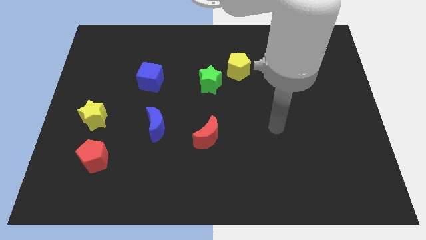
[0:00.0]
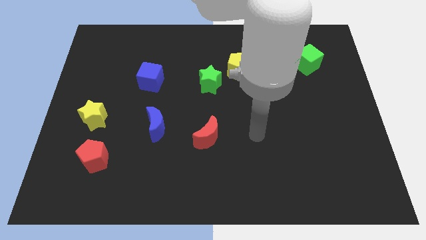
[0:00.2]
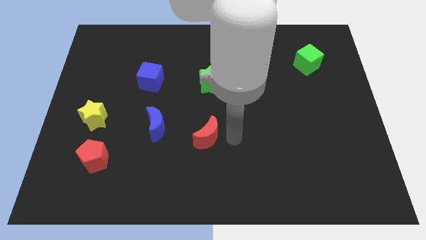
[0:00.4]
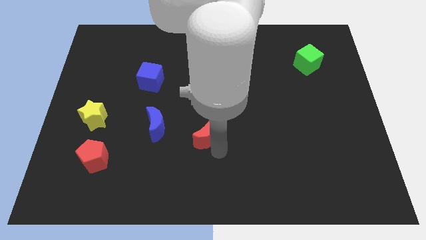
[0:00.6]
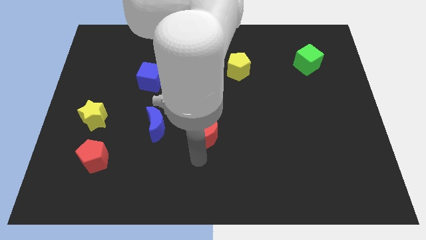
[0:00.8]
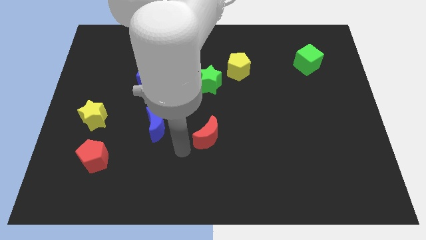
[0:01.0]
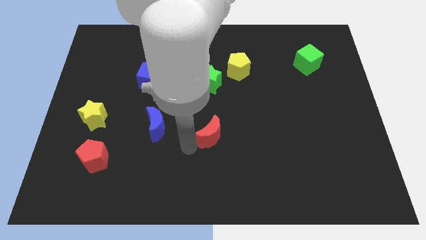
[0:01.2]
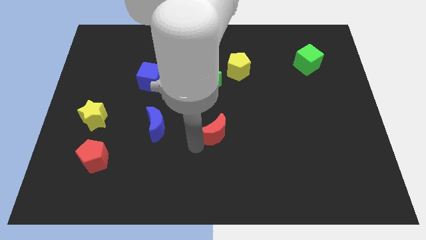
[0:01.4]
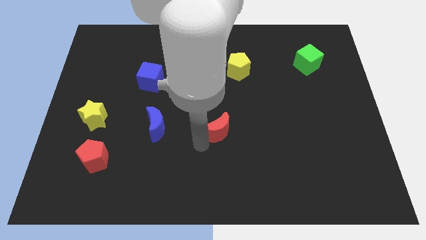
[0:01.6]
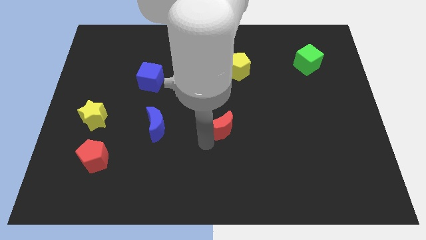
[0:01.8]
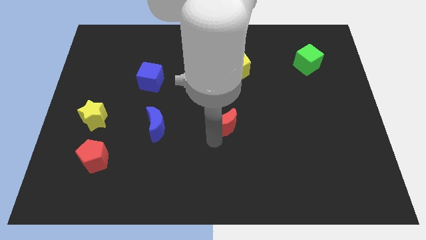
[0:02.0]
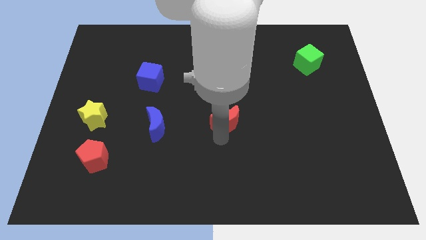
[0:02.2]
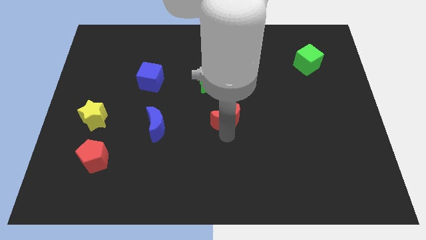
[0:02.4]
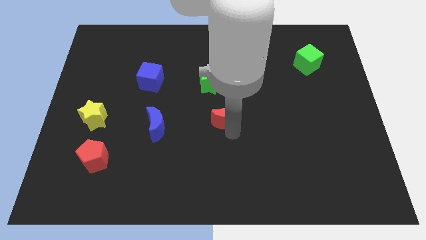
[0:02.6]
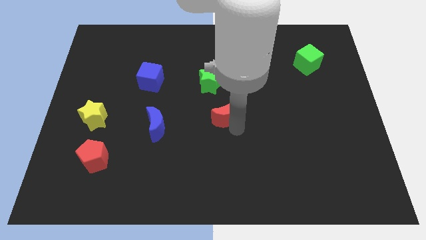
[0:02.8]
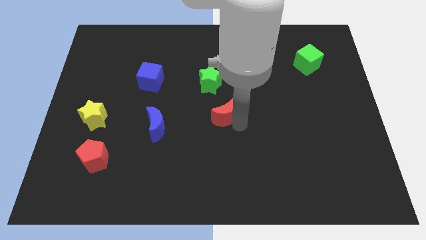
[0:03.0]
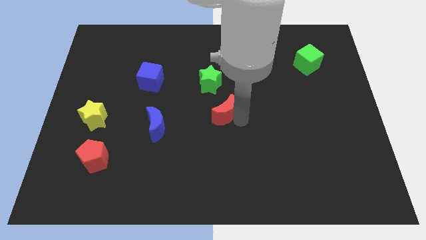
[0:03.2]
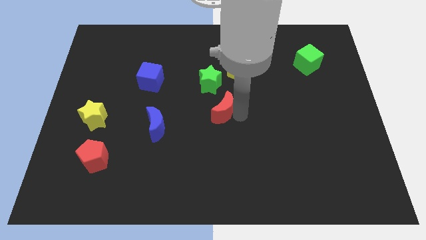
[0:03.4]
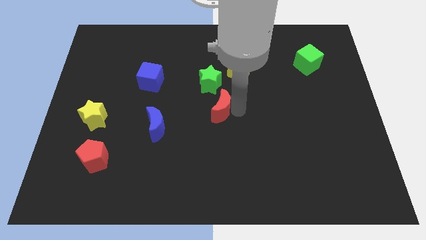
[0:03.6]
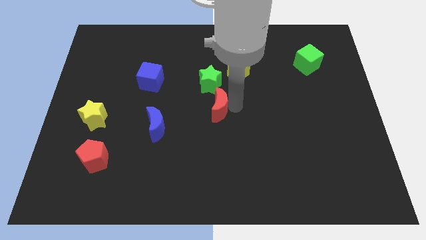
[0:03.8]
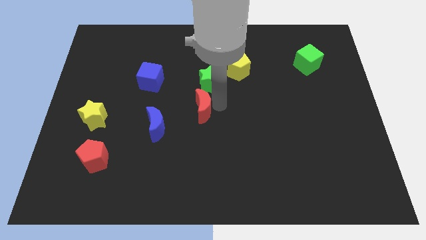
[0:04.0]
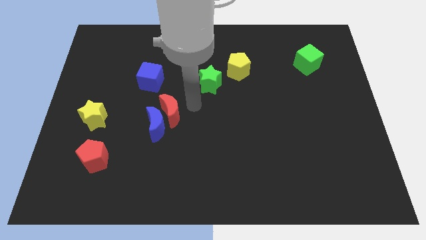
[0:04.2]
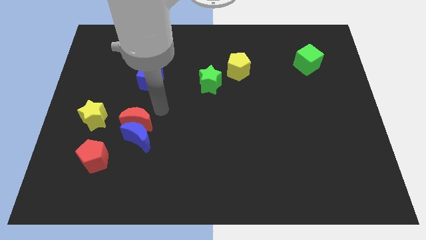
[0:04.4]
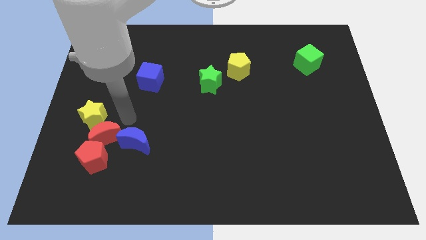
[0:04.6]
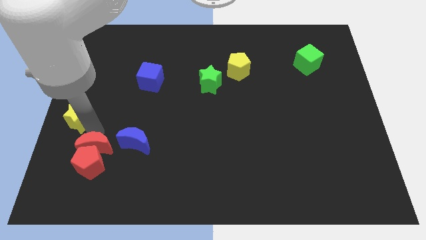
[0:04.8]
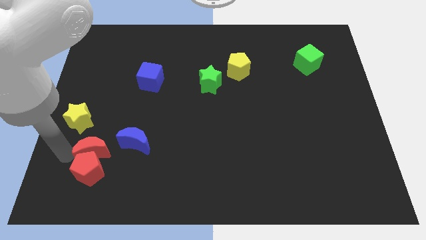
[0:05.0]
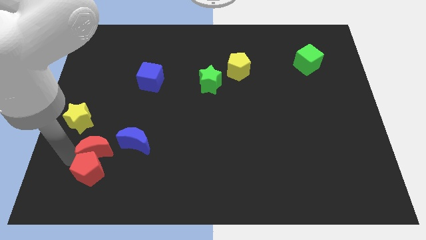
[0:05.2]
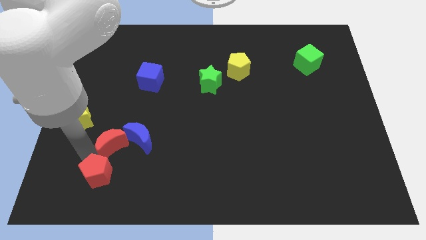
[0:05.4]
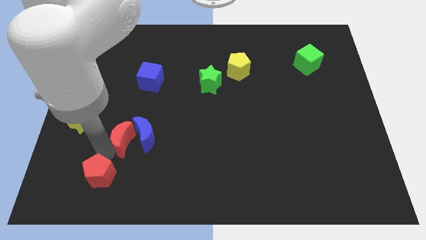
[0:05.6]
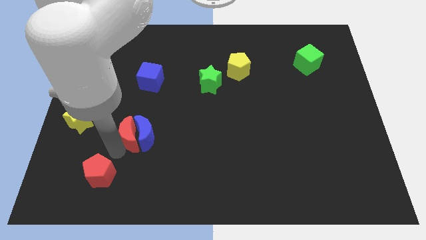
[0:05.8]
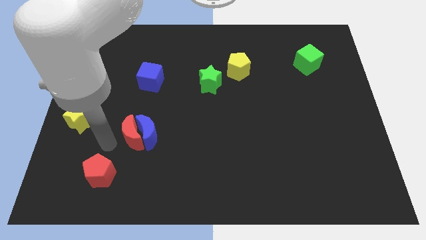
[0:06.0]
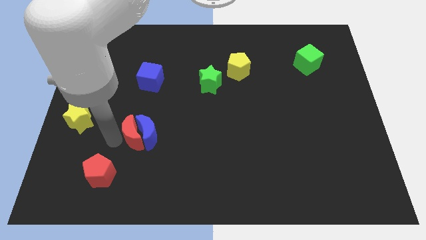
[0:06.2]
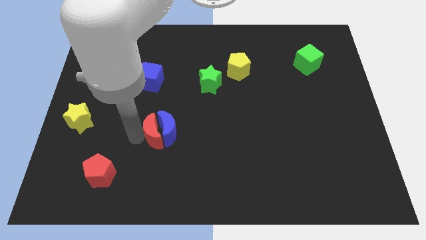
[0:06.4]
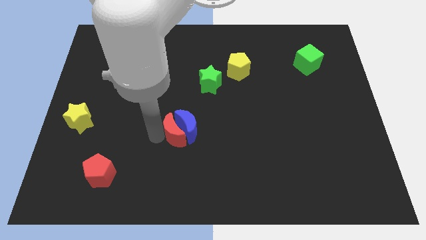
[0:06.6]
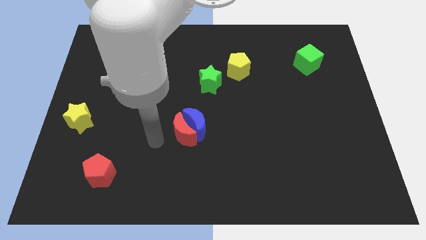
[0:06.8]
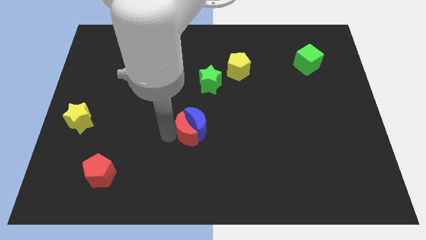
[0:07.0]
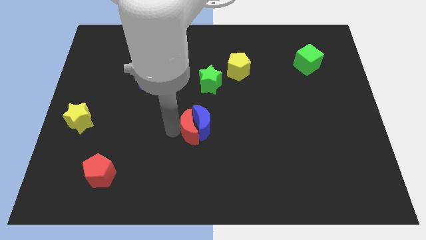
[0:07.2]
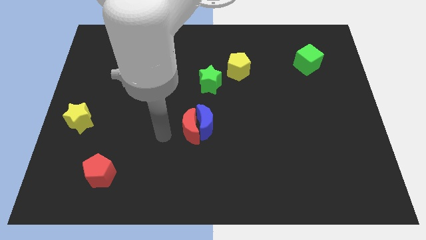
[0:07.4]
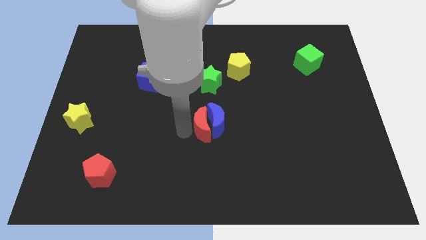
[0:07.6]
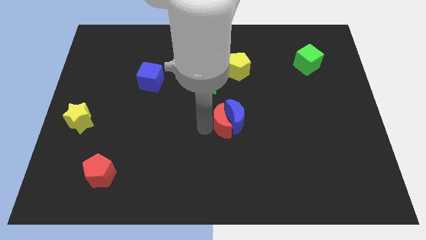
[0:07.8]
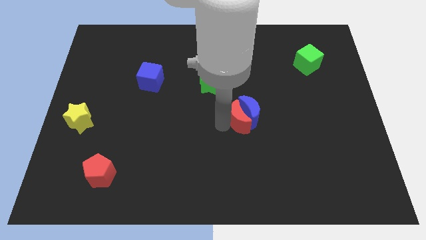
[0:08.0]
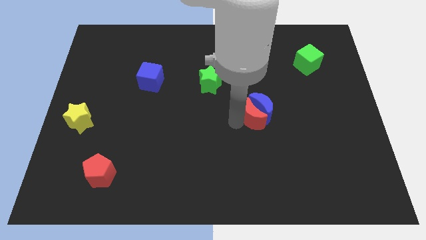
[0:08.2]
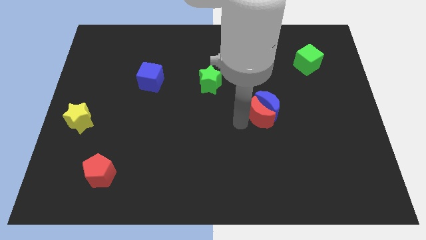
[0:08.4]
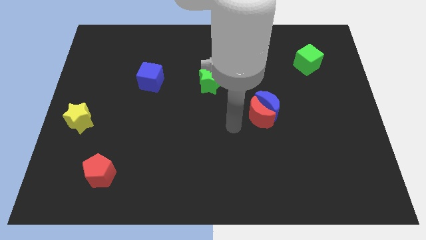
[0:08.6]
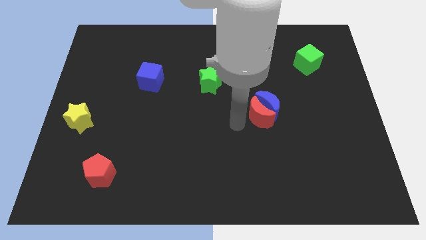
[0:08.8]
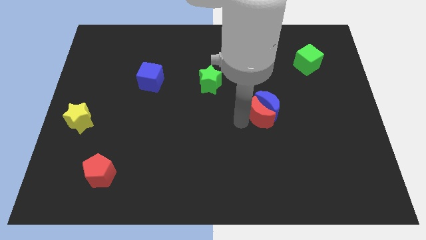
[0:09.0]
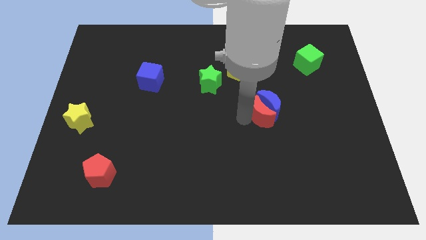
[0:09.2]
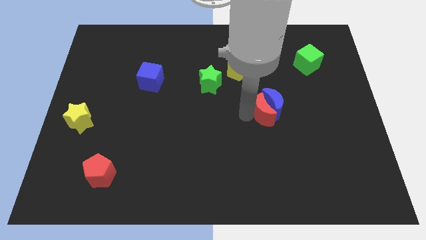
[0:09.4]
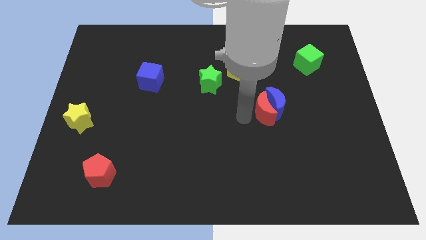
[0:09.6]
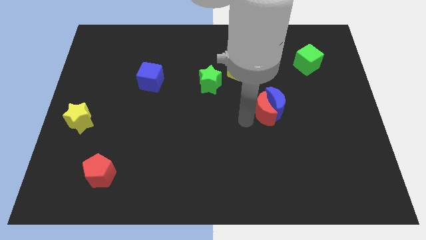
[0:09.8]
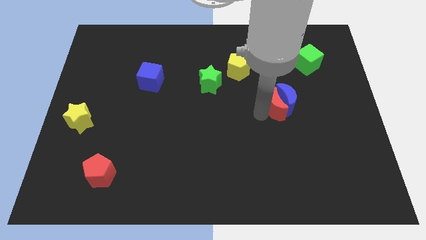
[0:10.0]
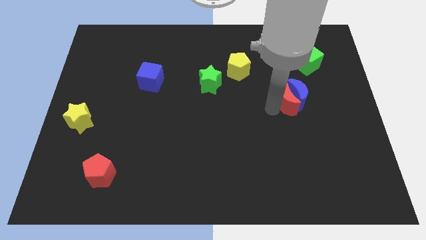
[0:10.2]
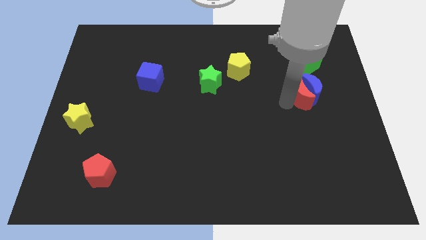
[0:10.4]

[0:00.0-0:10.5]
push the red moon to the bottom of the green cube
